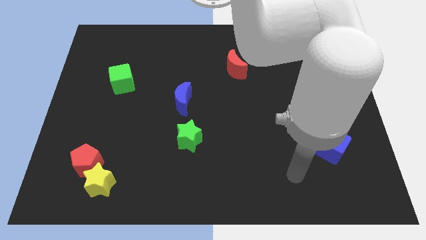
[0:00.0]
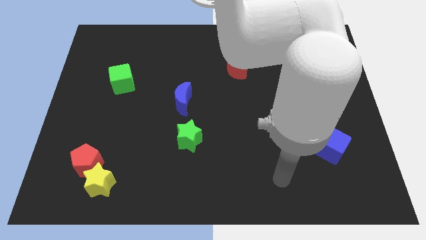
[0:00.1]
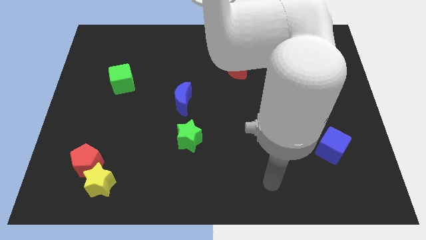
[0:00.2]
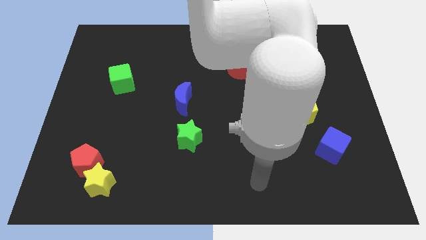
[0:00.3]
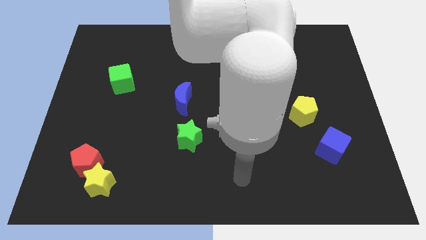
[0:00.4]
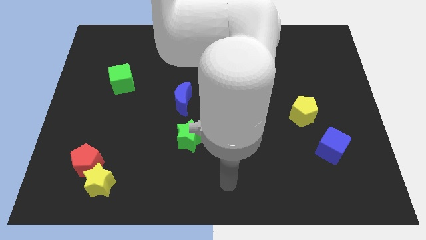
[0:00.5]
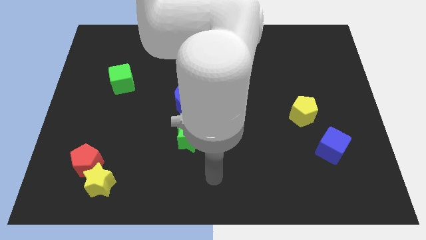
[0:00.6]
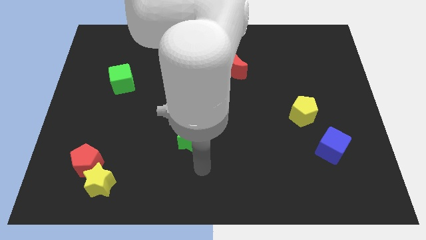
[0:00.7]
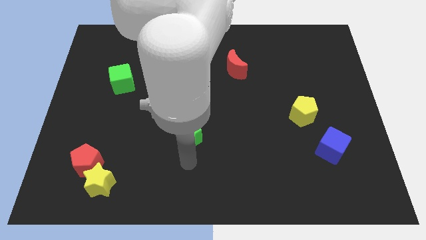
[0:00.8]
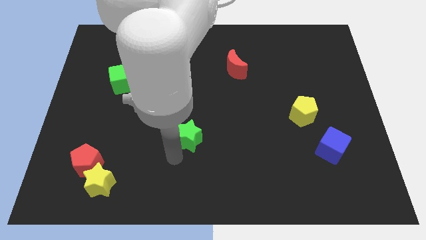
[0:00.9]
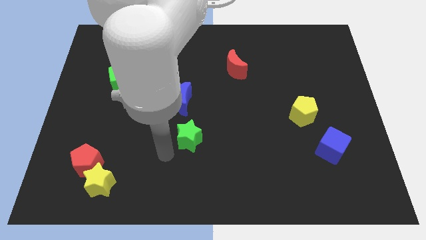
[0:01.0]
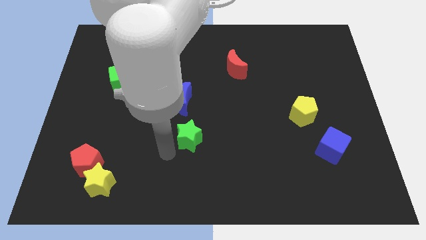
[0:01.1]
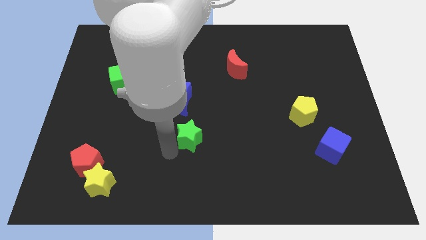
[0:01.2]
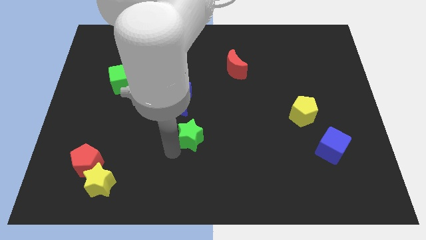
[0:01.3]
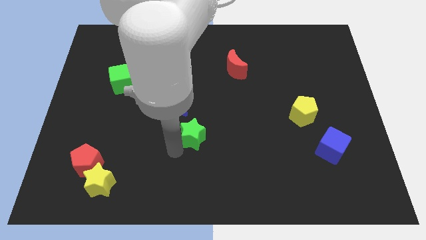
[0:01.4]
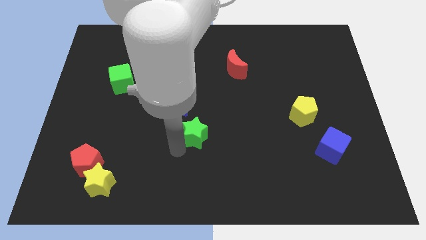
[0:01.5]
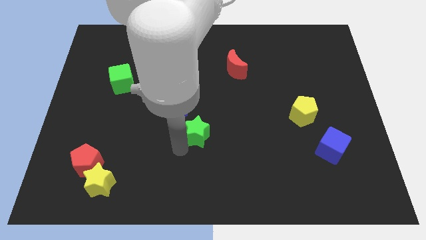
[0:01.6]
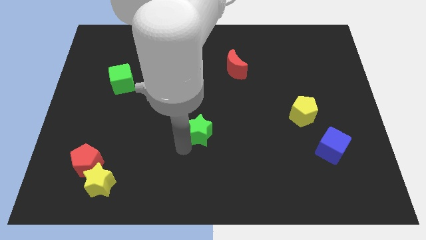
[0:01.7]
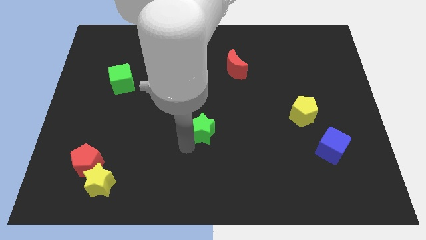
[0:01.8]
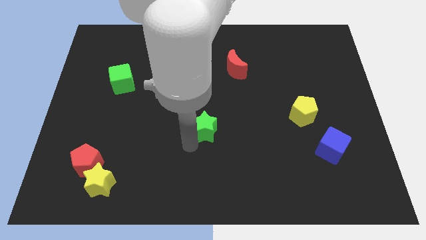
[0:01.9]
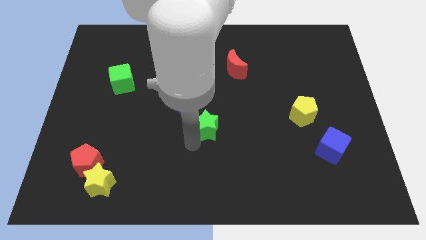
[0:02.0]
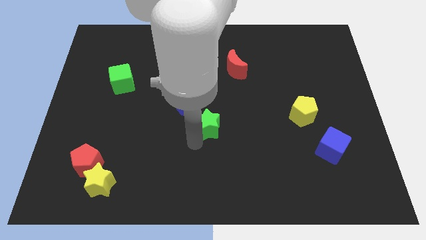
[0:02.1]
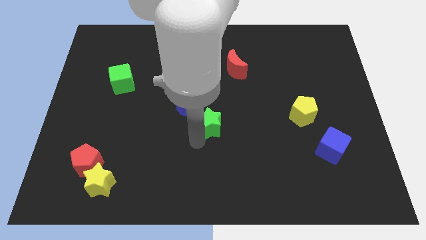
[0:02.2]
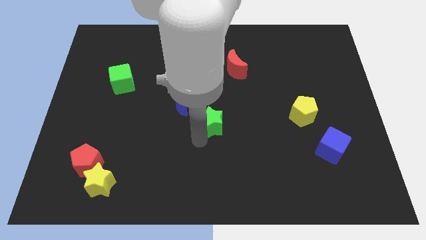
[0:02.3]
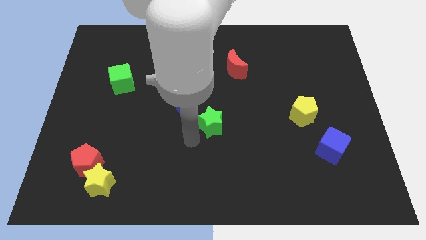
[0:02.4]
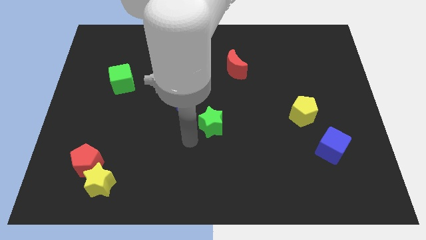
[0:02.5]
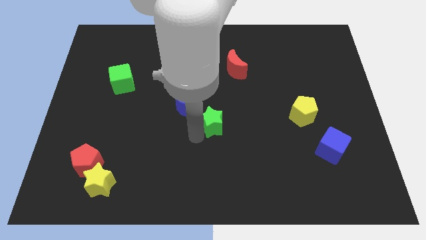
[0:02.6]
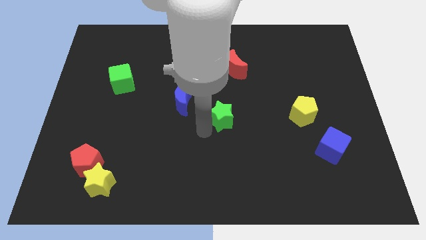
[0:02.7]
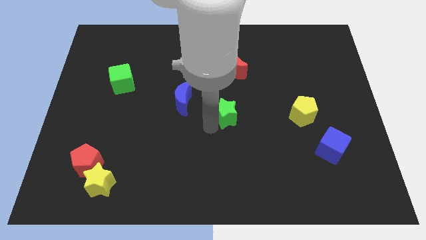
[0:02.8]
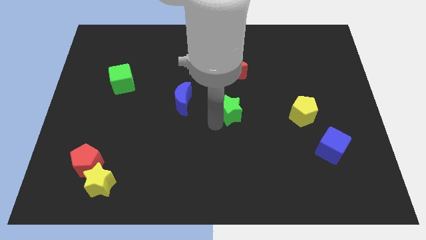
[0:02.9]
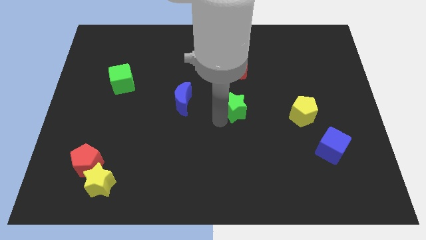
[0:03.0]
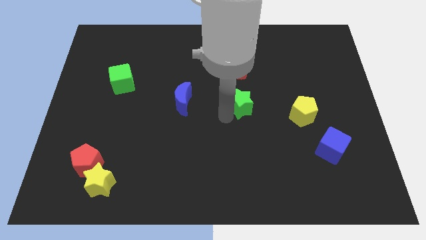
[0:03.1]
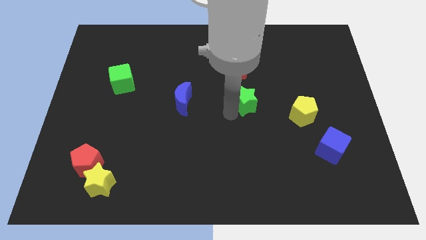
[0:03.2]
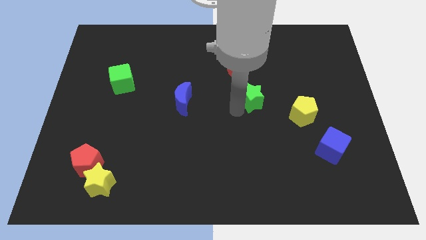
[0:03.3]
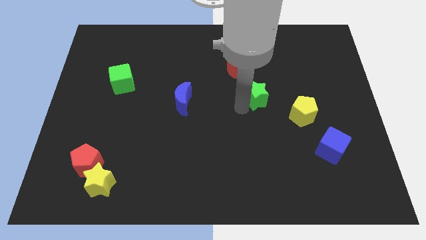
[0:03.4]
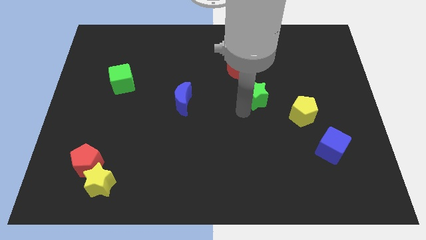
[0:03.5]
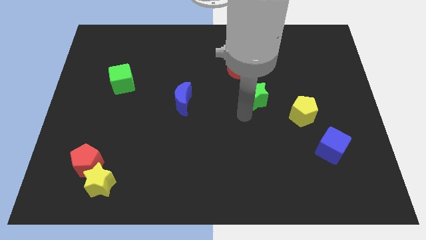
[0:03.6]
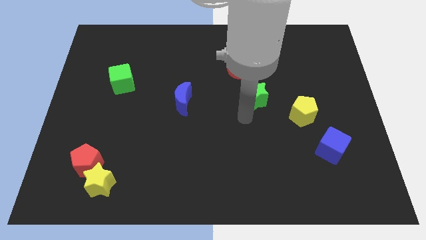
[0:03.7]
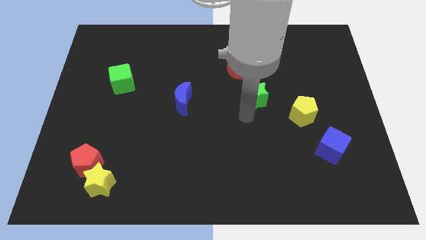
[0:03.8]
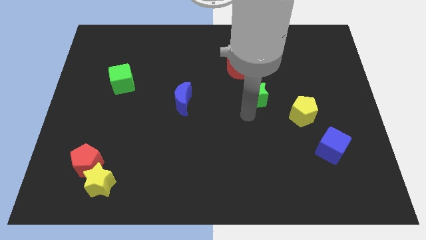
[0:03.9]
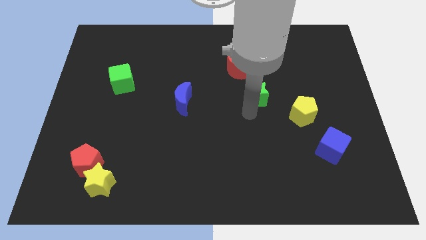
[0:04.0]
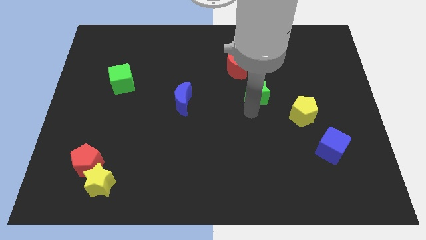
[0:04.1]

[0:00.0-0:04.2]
move the green star diagonally upwards and to the right

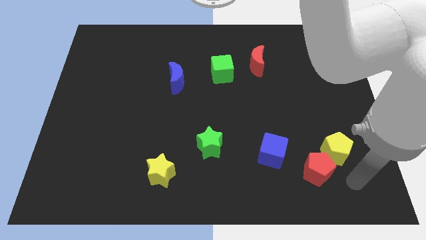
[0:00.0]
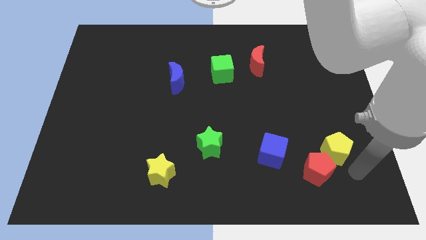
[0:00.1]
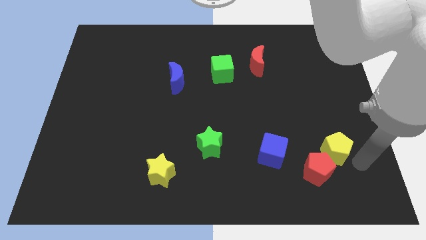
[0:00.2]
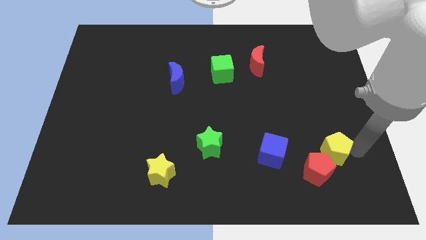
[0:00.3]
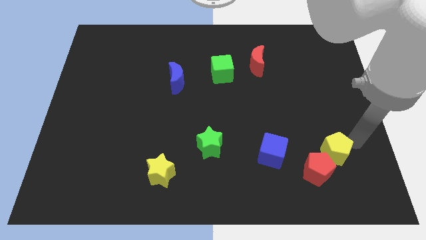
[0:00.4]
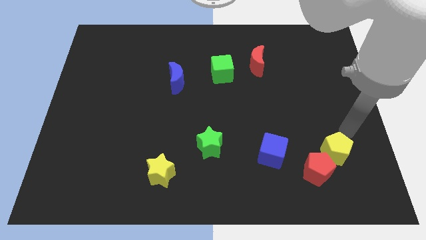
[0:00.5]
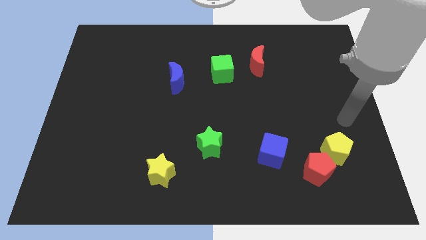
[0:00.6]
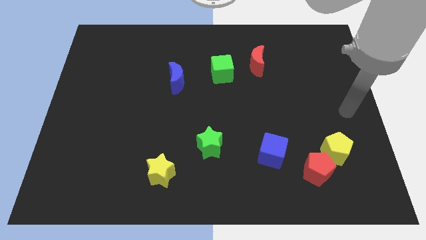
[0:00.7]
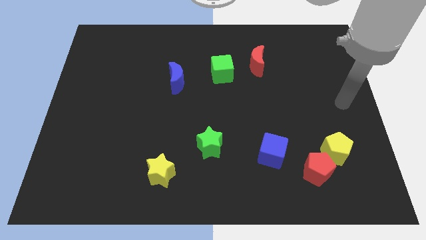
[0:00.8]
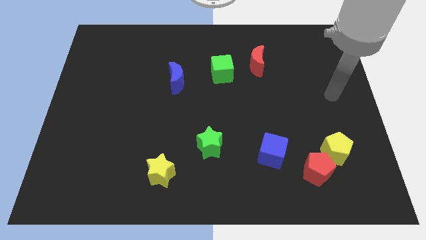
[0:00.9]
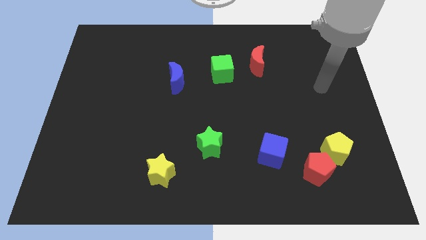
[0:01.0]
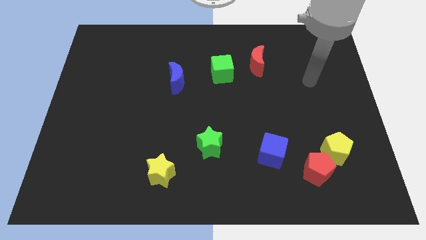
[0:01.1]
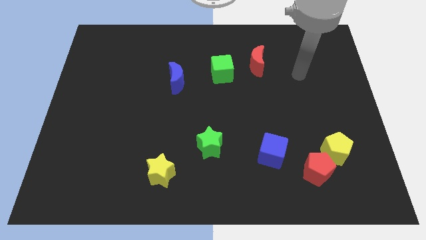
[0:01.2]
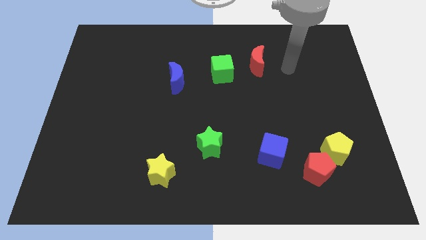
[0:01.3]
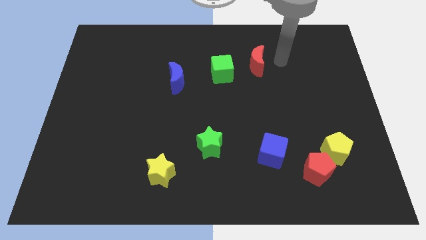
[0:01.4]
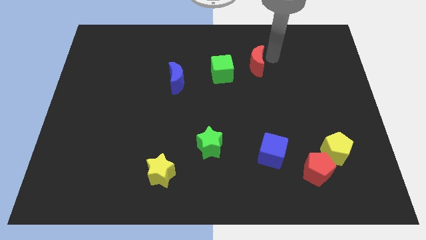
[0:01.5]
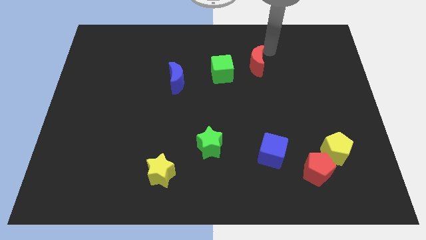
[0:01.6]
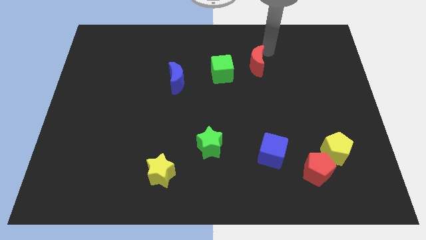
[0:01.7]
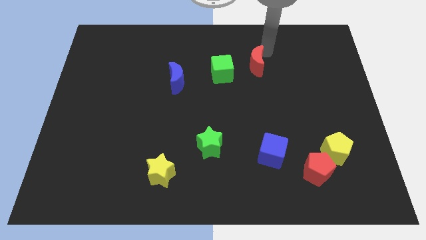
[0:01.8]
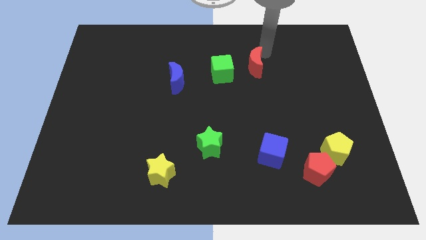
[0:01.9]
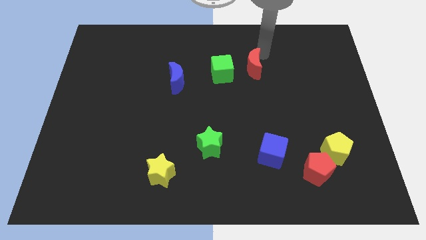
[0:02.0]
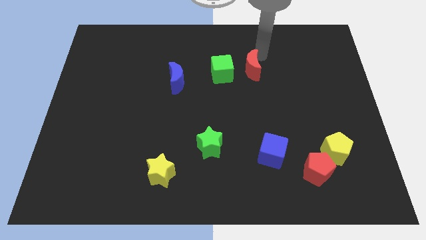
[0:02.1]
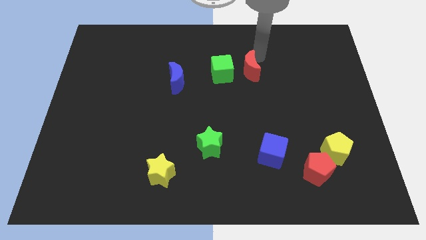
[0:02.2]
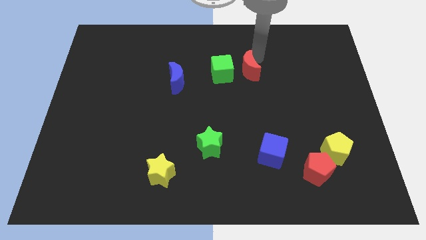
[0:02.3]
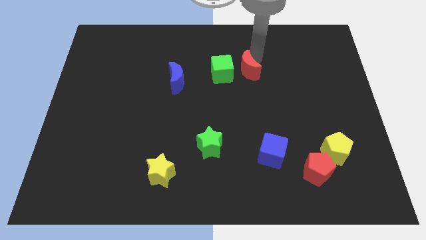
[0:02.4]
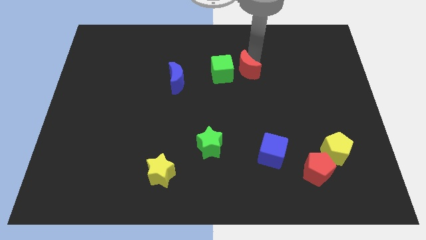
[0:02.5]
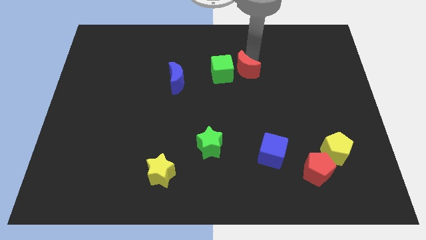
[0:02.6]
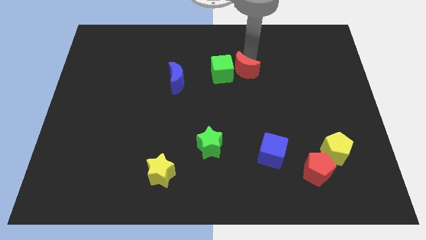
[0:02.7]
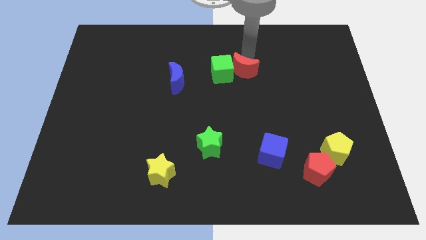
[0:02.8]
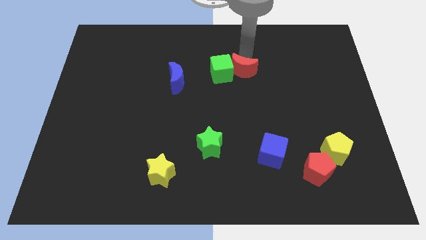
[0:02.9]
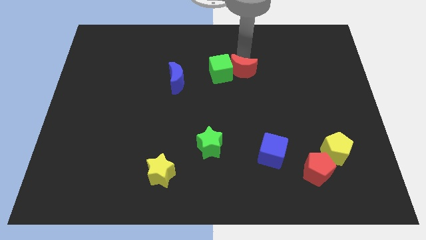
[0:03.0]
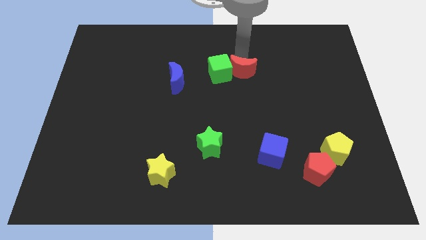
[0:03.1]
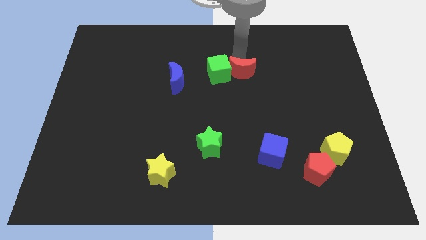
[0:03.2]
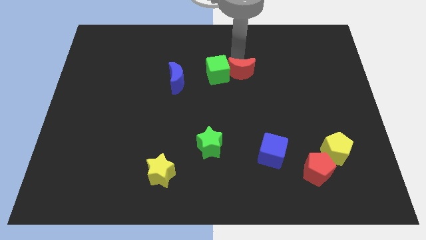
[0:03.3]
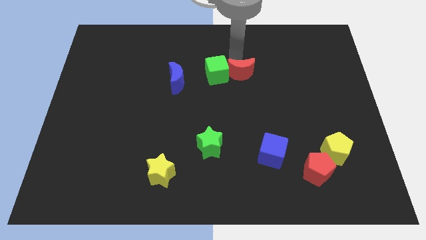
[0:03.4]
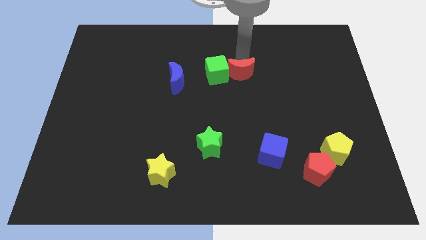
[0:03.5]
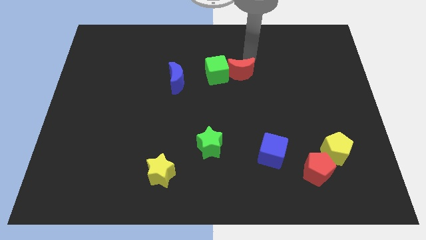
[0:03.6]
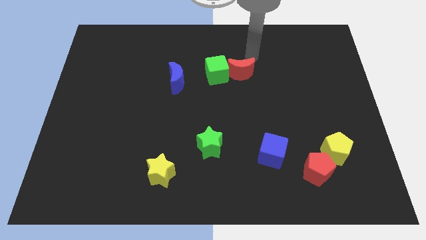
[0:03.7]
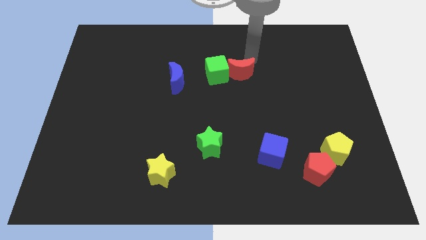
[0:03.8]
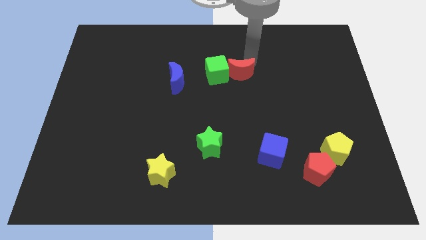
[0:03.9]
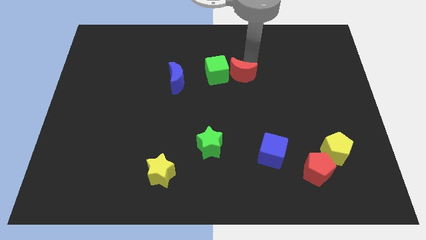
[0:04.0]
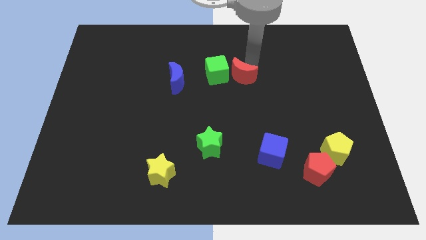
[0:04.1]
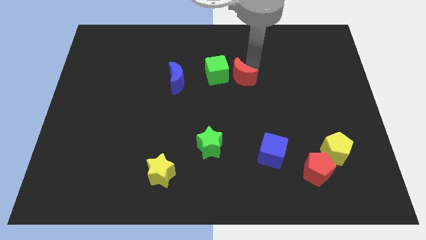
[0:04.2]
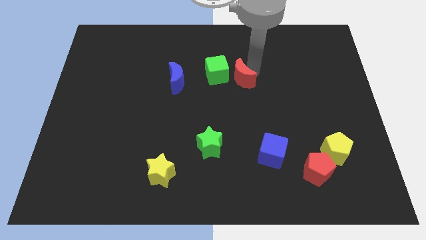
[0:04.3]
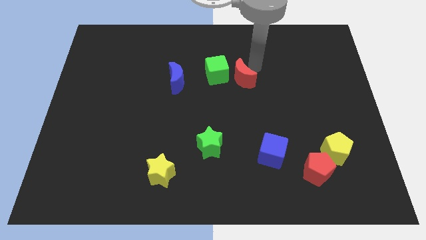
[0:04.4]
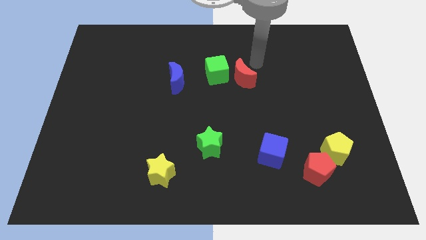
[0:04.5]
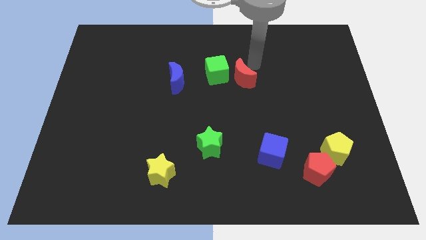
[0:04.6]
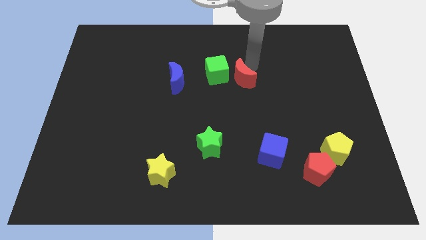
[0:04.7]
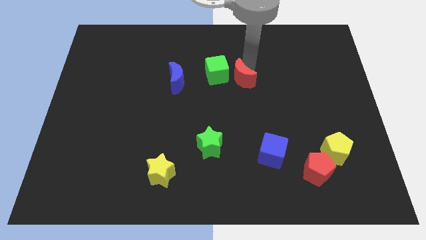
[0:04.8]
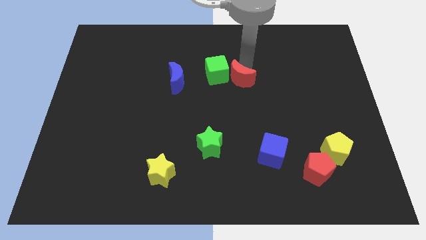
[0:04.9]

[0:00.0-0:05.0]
move the red moon slightly downwards and then left
